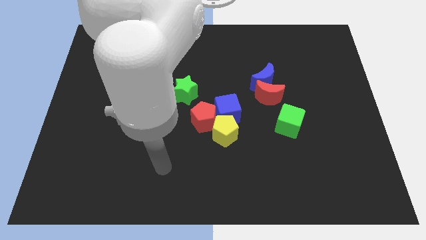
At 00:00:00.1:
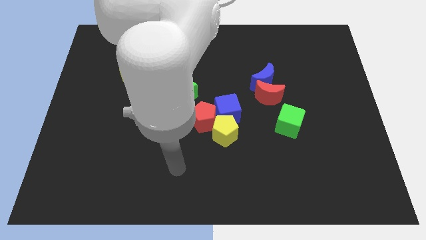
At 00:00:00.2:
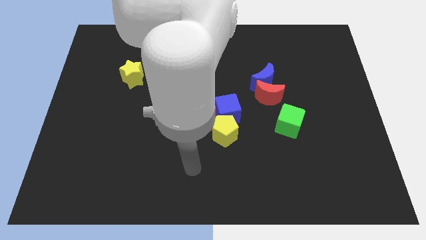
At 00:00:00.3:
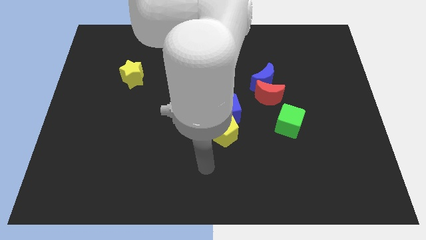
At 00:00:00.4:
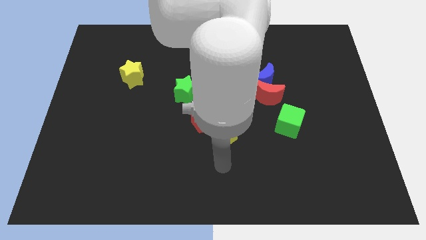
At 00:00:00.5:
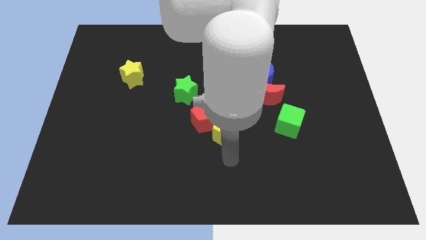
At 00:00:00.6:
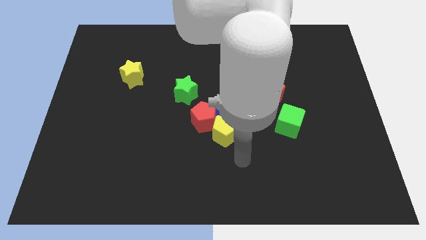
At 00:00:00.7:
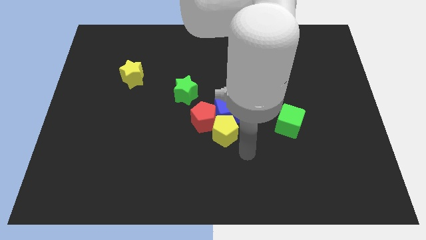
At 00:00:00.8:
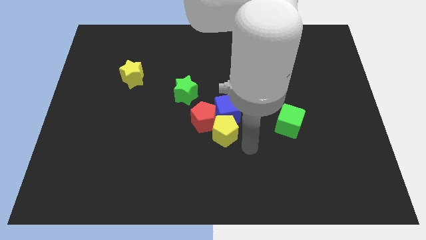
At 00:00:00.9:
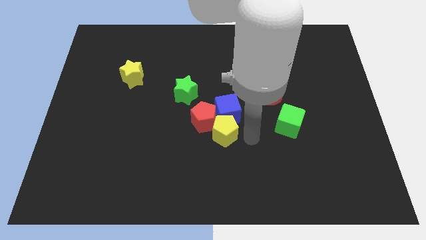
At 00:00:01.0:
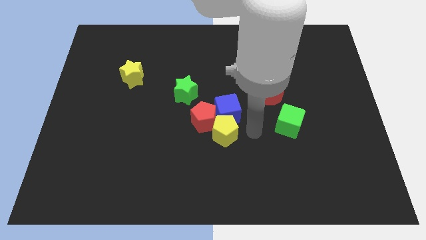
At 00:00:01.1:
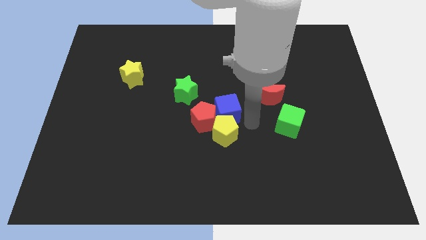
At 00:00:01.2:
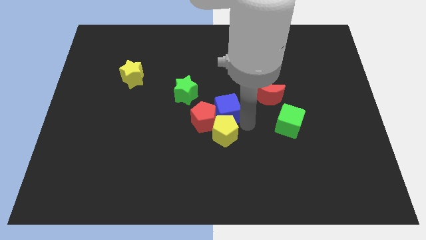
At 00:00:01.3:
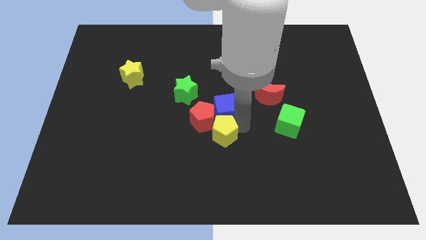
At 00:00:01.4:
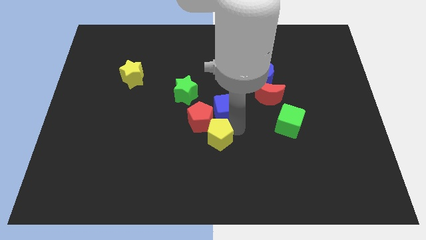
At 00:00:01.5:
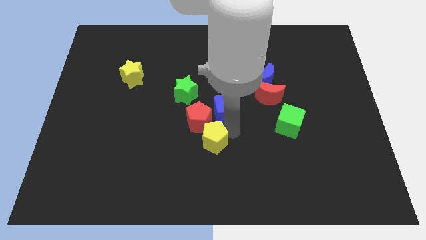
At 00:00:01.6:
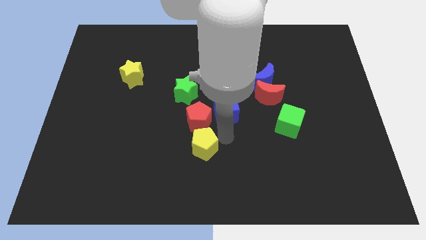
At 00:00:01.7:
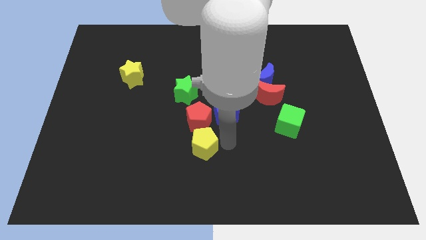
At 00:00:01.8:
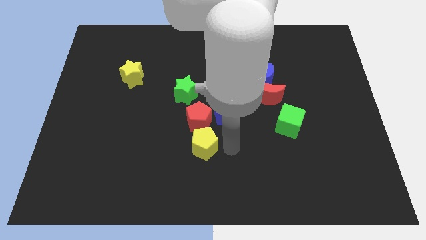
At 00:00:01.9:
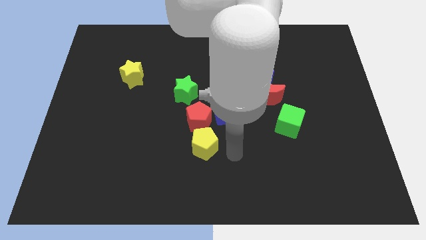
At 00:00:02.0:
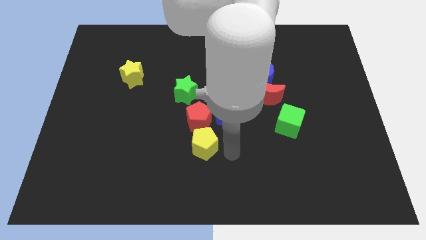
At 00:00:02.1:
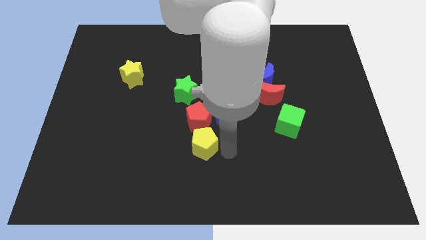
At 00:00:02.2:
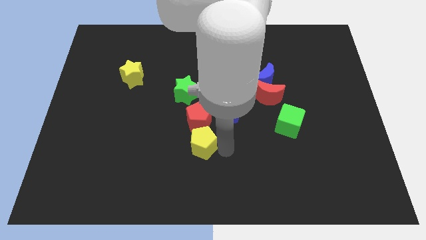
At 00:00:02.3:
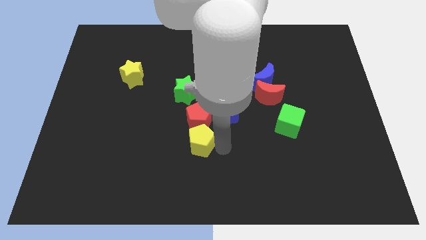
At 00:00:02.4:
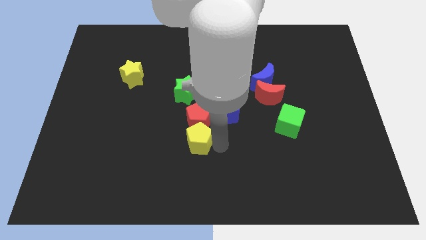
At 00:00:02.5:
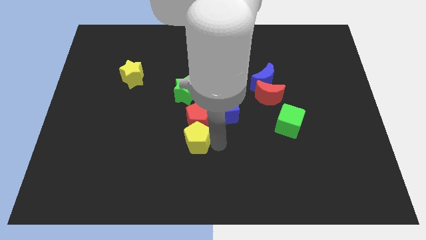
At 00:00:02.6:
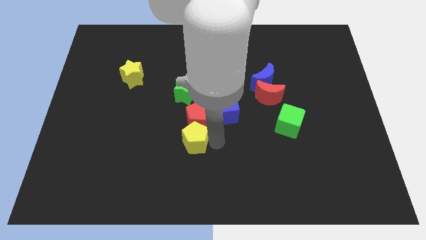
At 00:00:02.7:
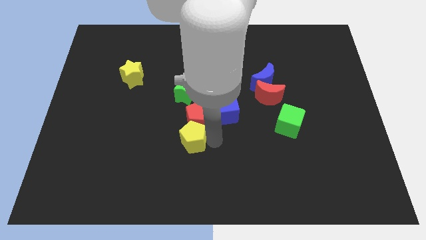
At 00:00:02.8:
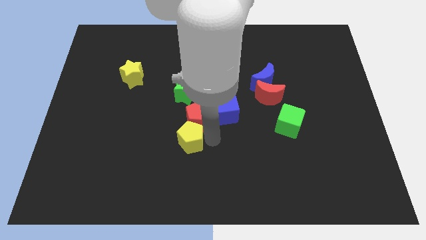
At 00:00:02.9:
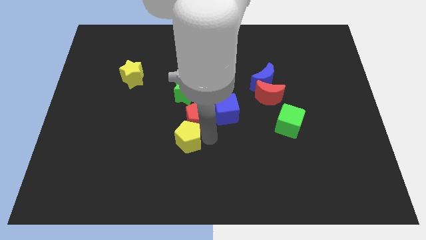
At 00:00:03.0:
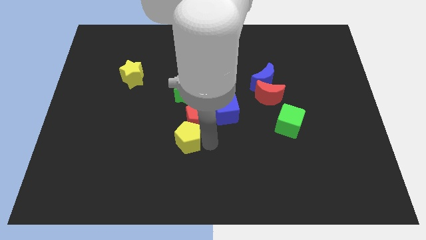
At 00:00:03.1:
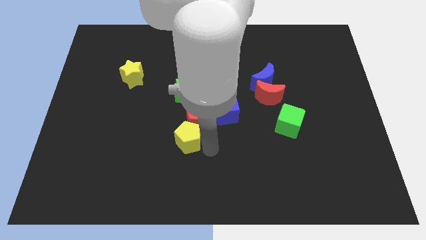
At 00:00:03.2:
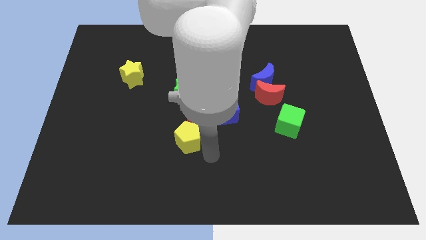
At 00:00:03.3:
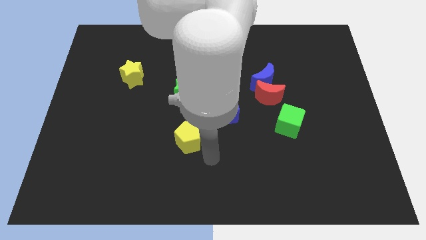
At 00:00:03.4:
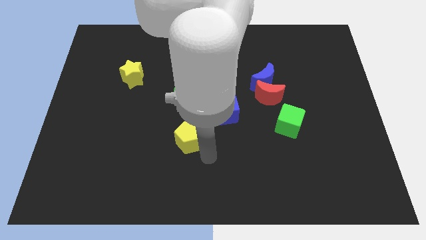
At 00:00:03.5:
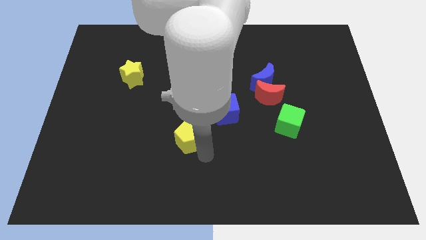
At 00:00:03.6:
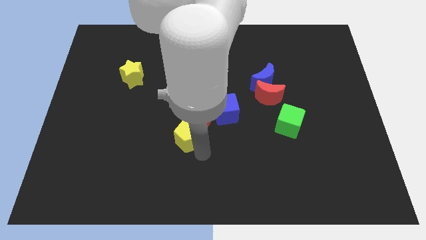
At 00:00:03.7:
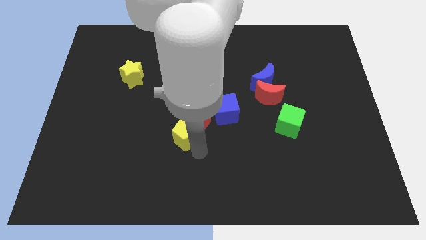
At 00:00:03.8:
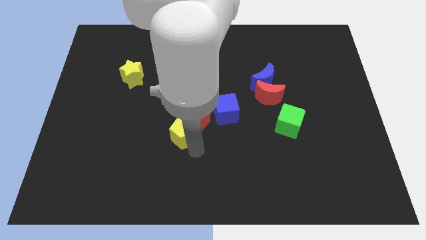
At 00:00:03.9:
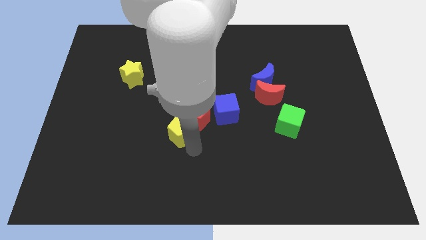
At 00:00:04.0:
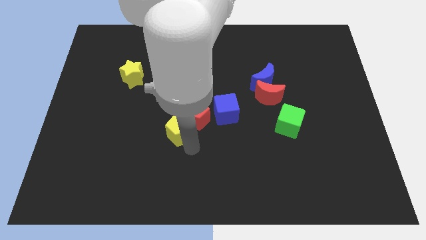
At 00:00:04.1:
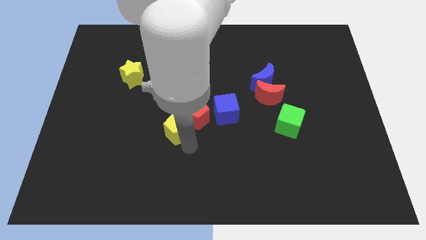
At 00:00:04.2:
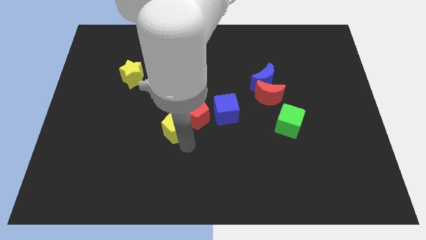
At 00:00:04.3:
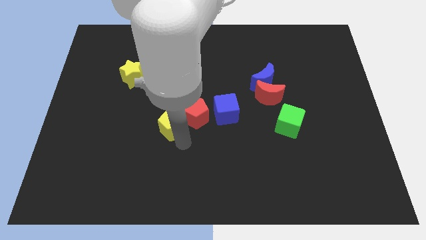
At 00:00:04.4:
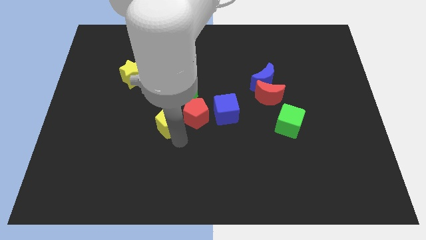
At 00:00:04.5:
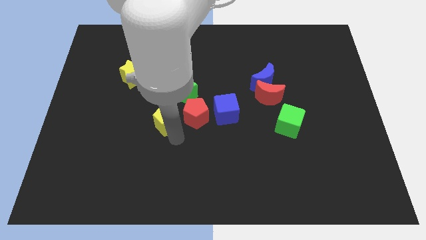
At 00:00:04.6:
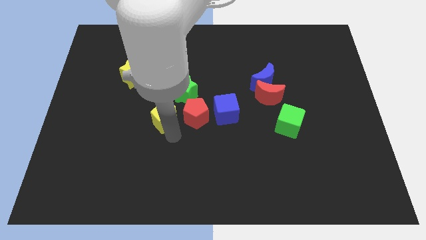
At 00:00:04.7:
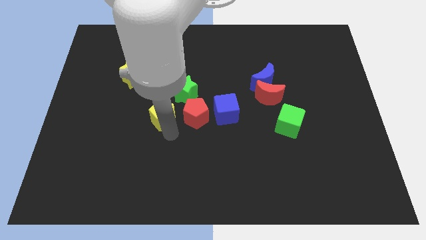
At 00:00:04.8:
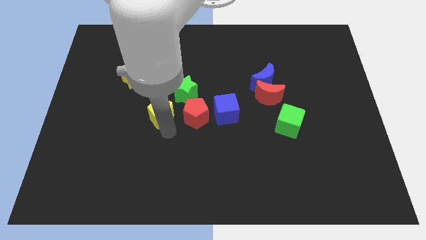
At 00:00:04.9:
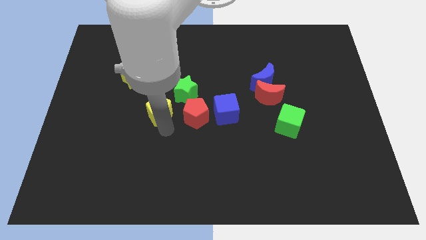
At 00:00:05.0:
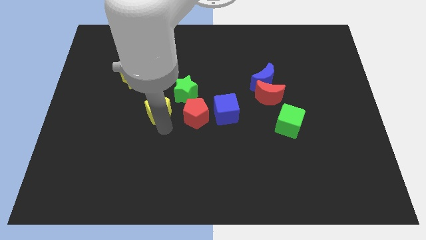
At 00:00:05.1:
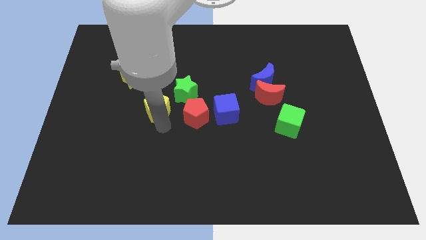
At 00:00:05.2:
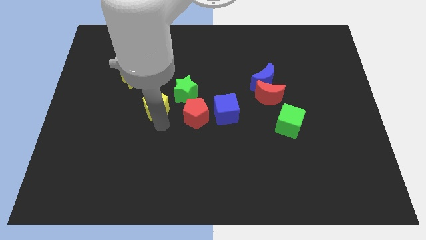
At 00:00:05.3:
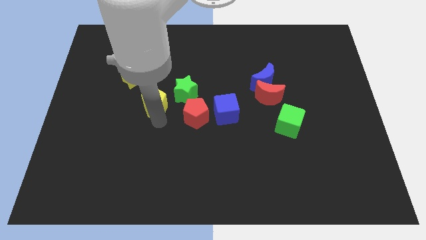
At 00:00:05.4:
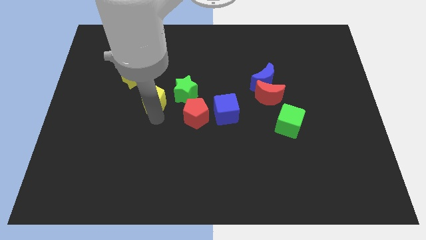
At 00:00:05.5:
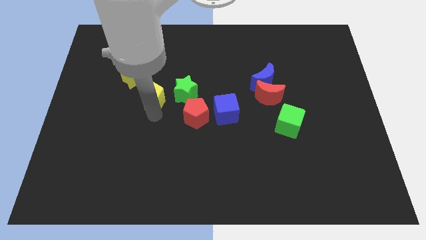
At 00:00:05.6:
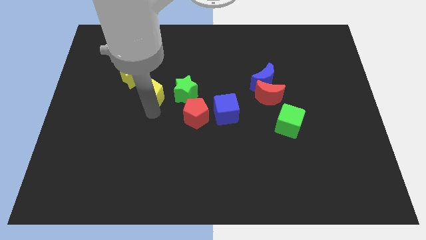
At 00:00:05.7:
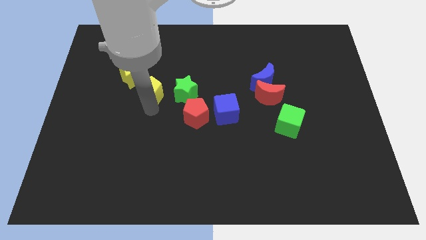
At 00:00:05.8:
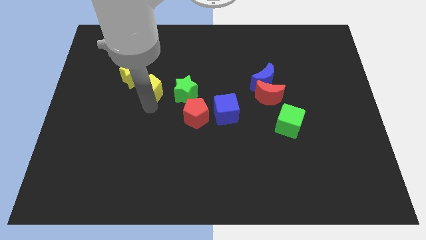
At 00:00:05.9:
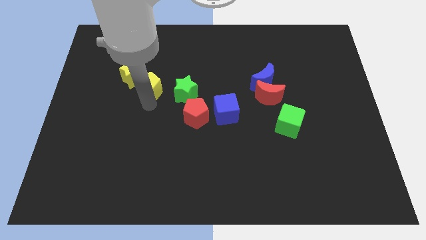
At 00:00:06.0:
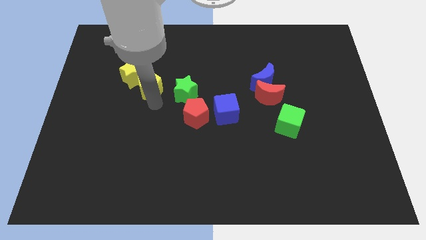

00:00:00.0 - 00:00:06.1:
move the yellow pentagon to the yellow star
